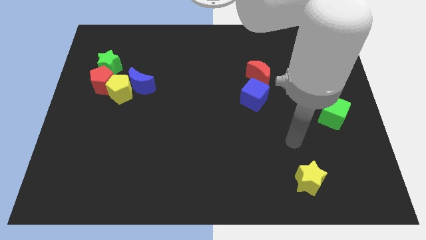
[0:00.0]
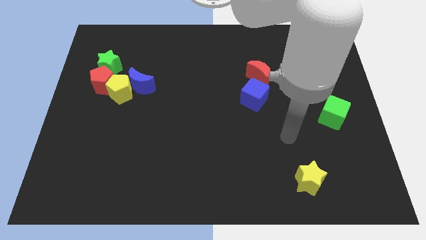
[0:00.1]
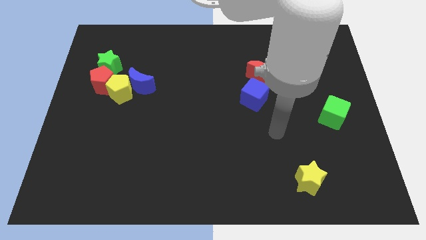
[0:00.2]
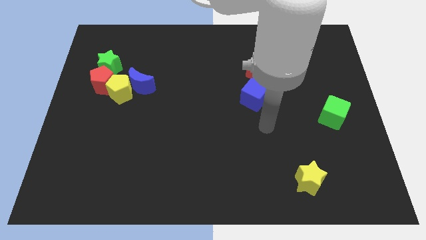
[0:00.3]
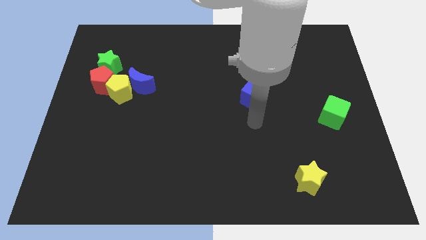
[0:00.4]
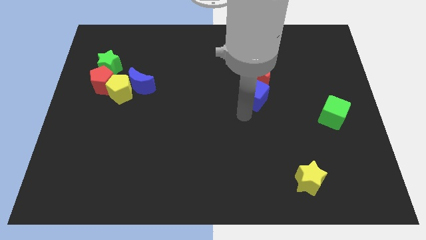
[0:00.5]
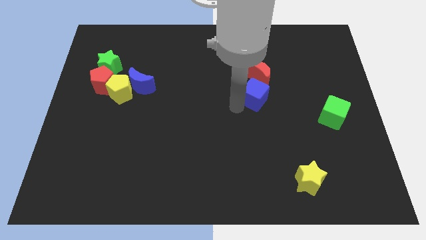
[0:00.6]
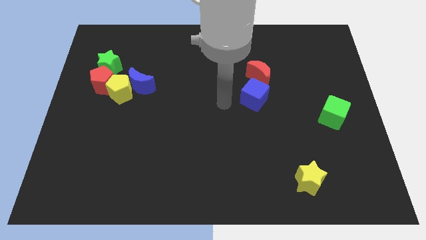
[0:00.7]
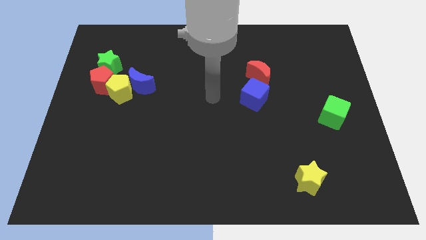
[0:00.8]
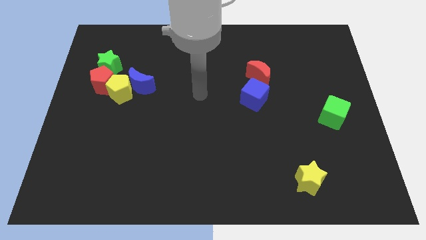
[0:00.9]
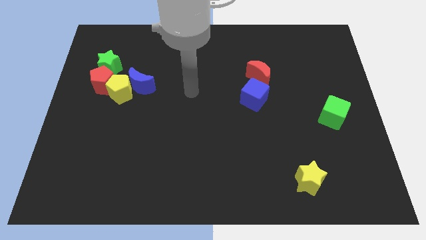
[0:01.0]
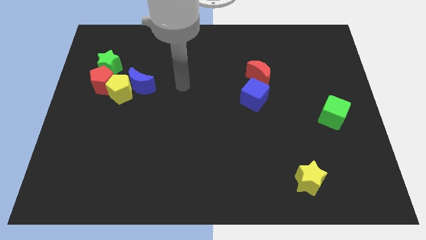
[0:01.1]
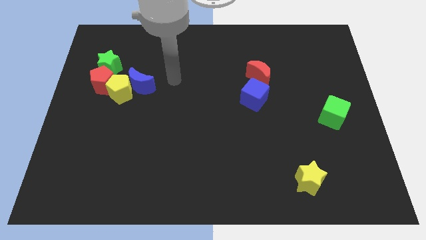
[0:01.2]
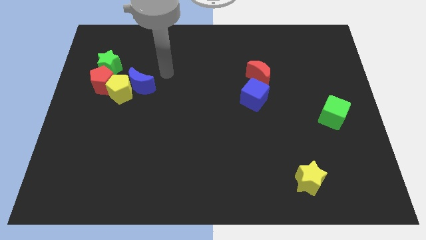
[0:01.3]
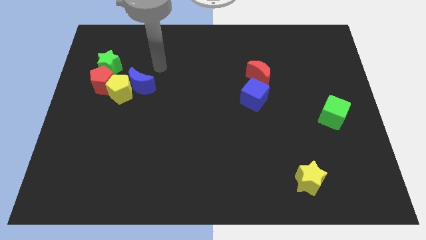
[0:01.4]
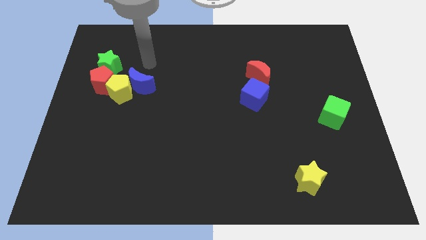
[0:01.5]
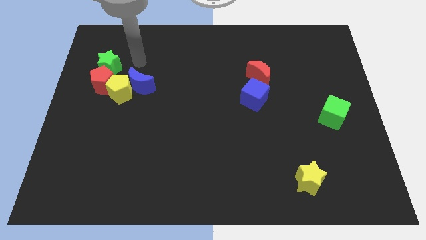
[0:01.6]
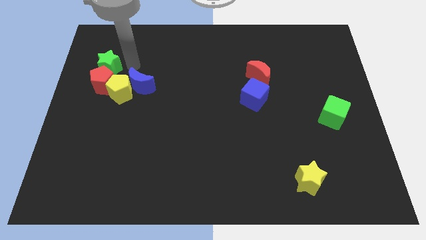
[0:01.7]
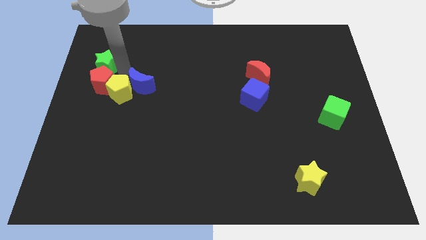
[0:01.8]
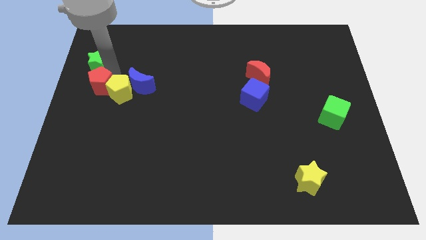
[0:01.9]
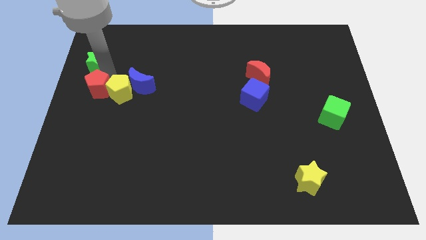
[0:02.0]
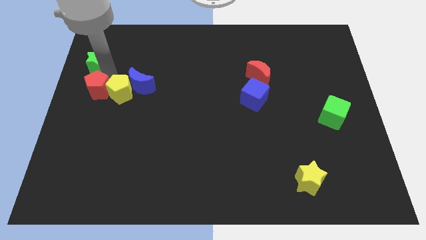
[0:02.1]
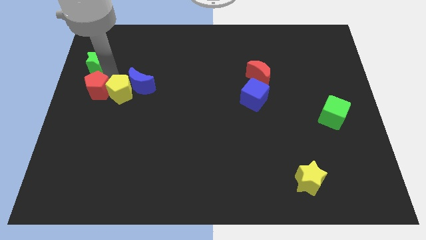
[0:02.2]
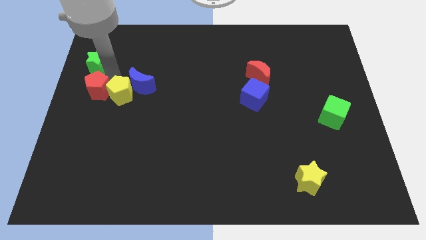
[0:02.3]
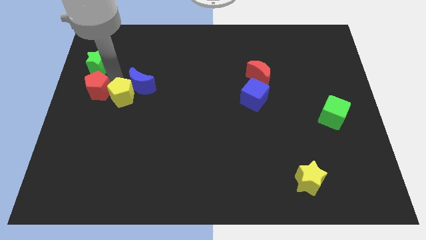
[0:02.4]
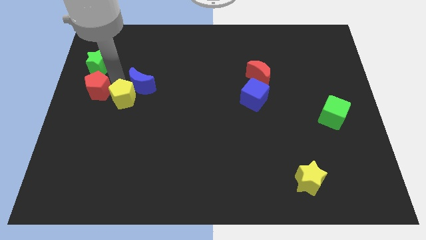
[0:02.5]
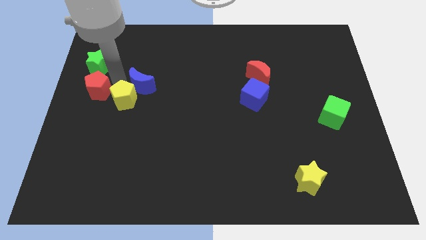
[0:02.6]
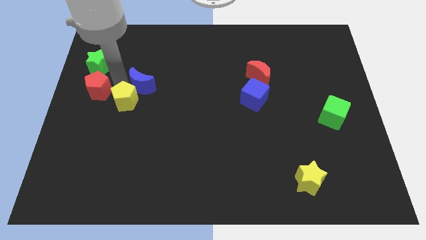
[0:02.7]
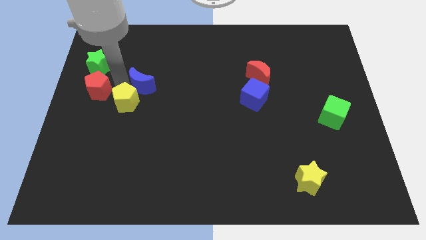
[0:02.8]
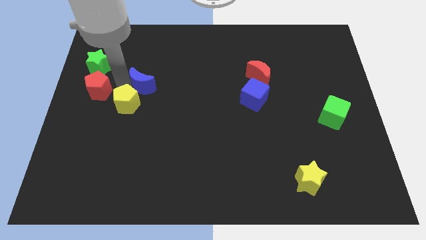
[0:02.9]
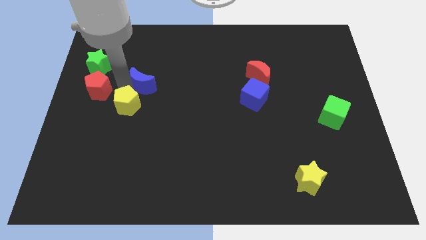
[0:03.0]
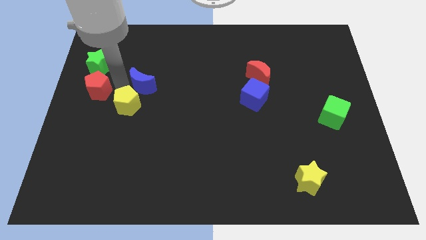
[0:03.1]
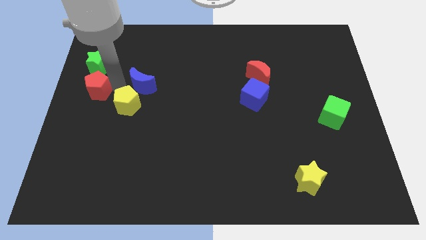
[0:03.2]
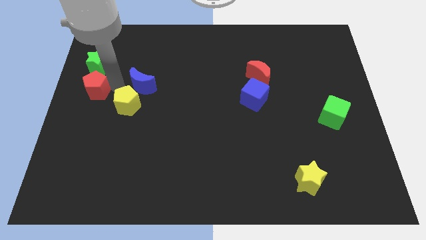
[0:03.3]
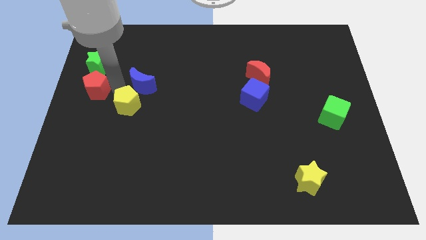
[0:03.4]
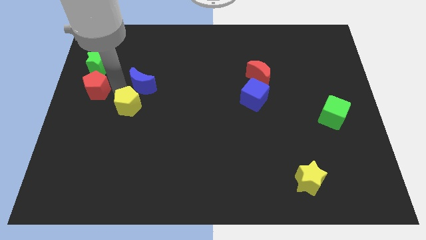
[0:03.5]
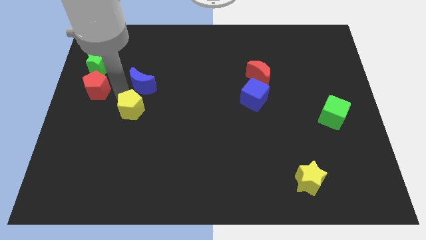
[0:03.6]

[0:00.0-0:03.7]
separate the yellow pentagon from the group

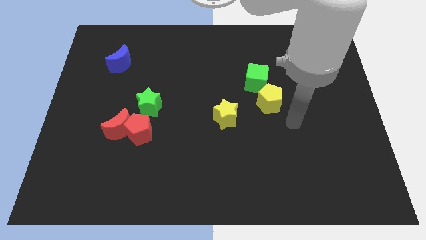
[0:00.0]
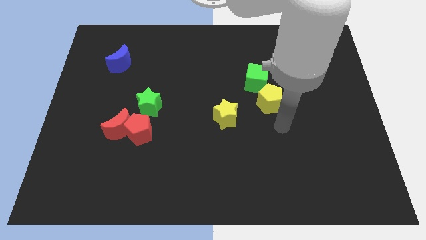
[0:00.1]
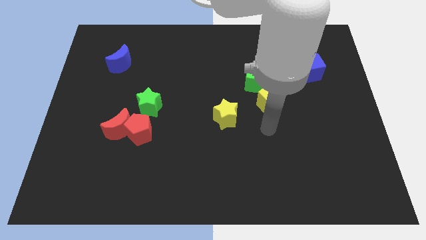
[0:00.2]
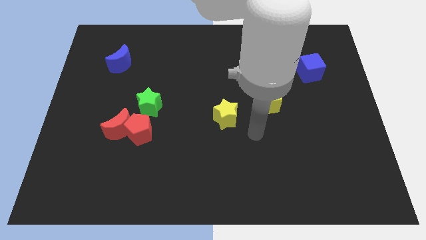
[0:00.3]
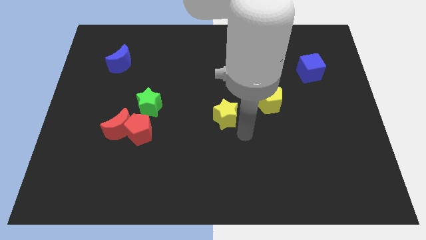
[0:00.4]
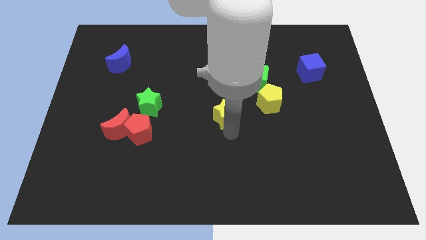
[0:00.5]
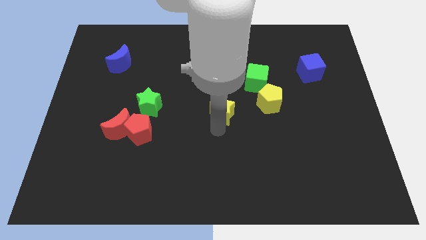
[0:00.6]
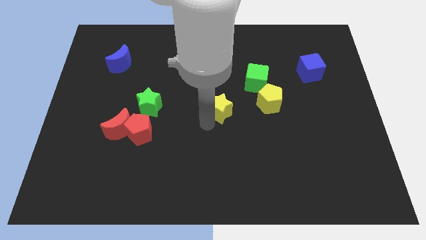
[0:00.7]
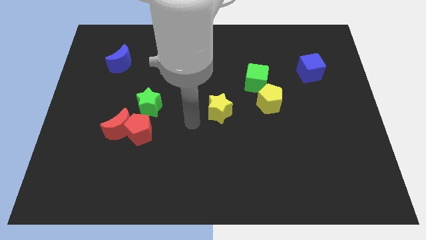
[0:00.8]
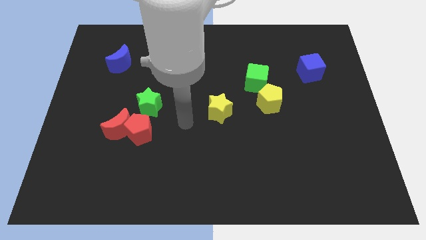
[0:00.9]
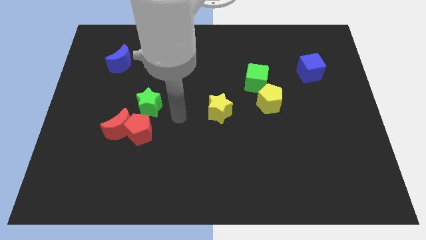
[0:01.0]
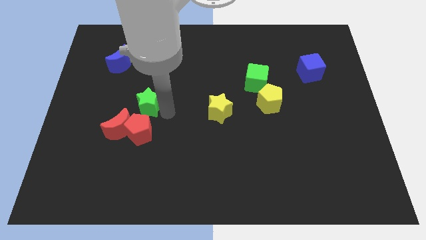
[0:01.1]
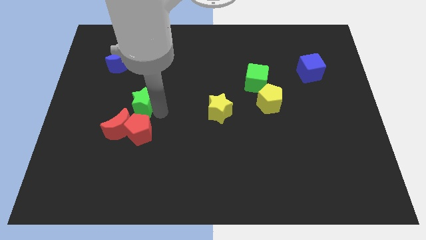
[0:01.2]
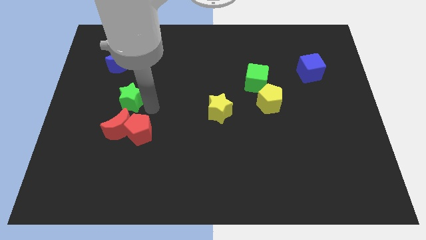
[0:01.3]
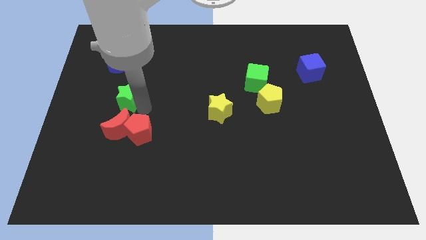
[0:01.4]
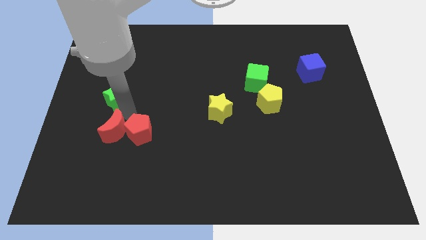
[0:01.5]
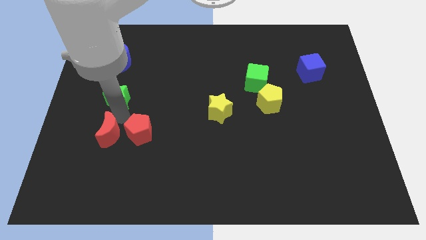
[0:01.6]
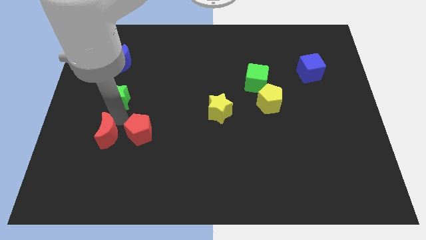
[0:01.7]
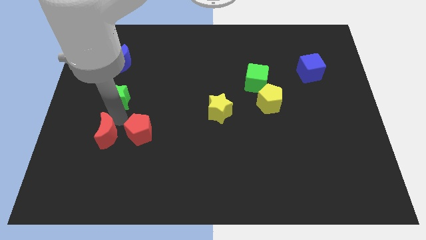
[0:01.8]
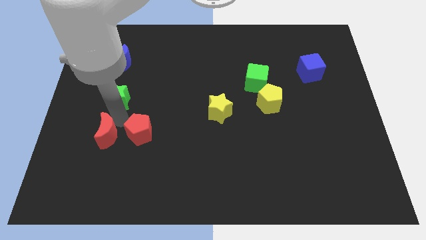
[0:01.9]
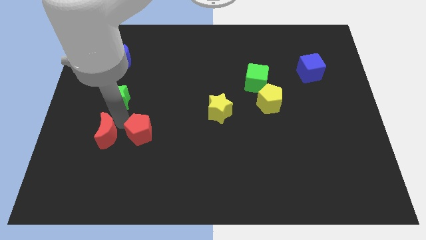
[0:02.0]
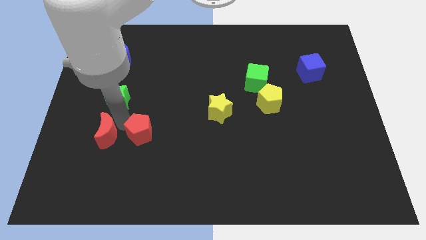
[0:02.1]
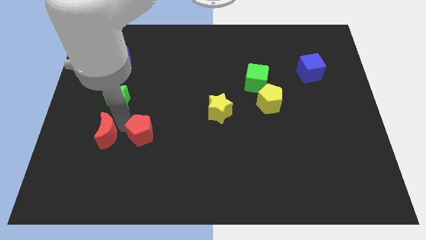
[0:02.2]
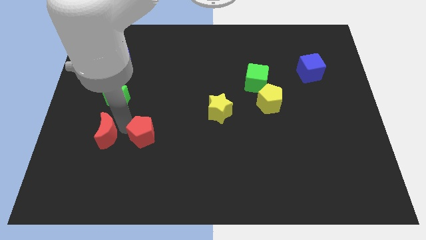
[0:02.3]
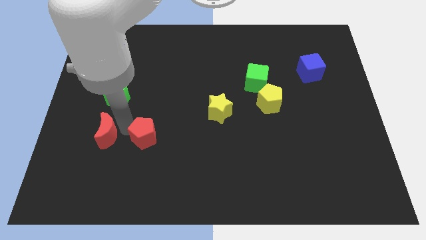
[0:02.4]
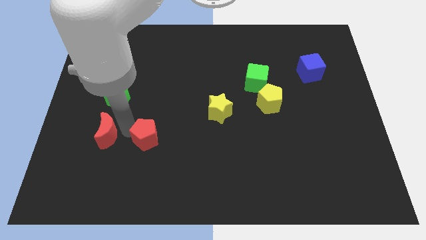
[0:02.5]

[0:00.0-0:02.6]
move the red pentagon away from the red moon and green star

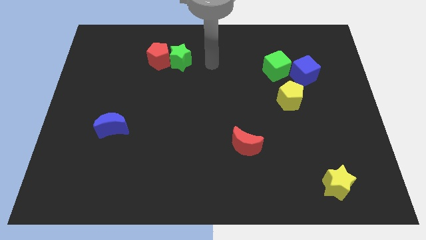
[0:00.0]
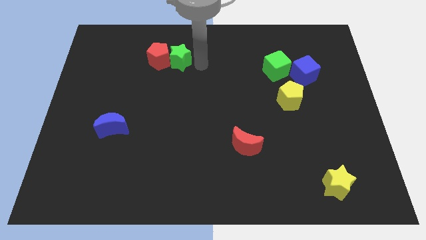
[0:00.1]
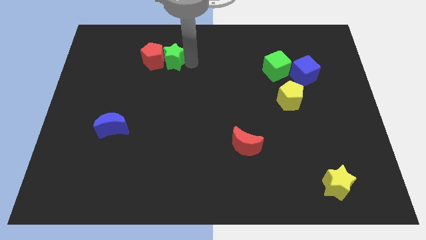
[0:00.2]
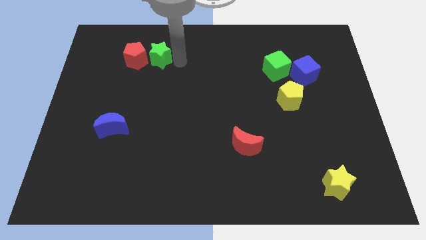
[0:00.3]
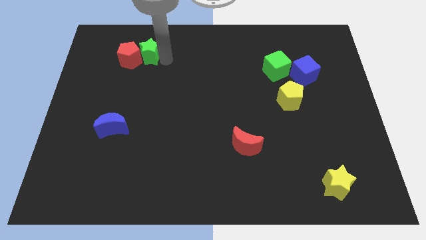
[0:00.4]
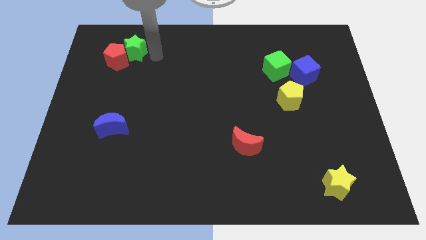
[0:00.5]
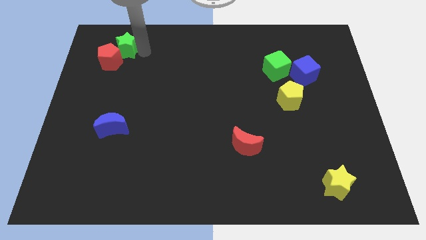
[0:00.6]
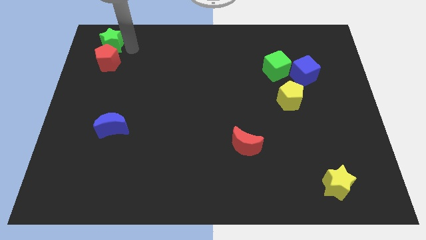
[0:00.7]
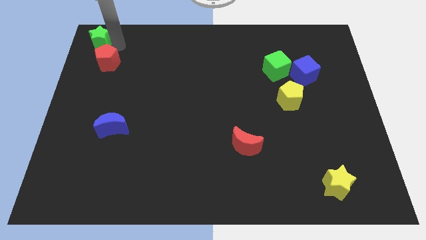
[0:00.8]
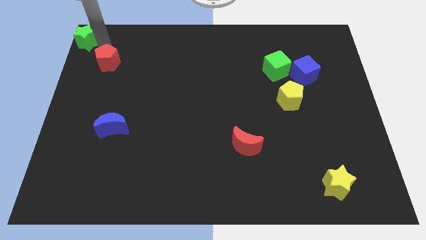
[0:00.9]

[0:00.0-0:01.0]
move the red pentagon away from the green star

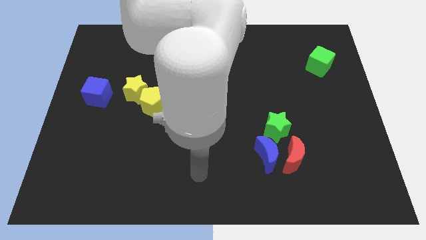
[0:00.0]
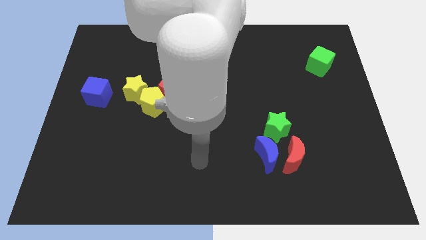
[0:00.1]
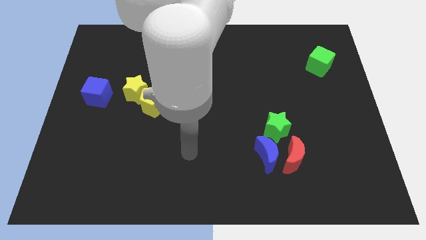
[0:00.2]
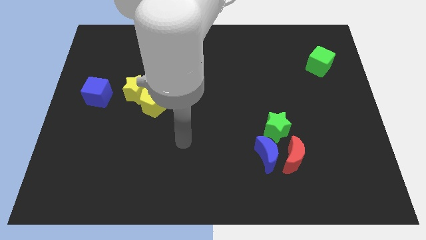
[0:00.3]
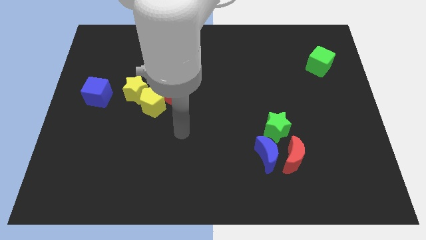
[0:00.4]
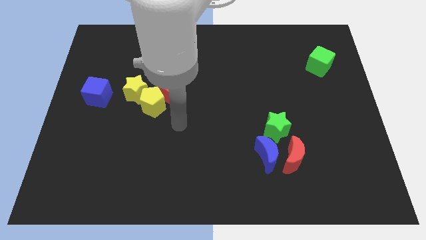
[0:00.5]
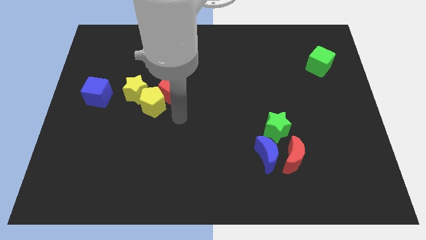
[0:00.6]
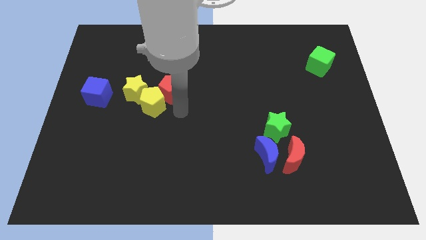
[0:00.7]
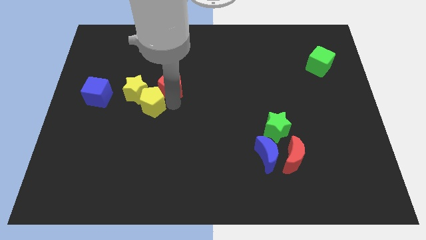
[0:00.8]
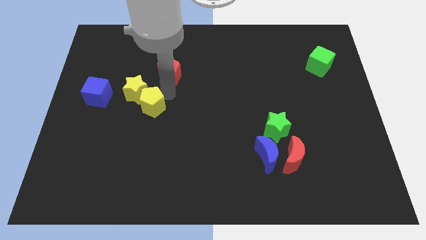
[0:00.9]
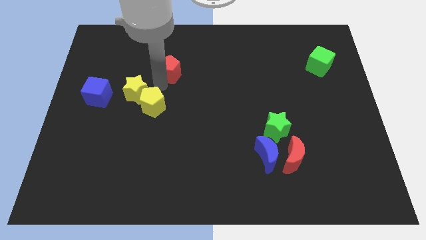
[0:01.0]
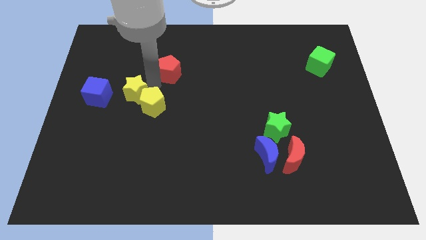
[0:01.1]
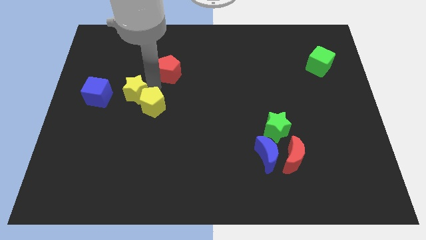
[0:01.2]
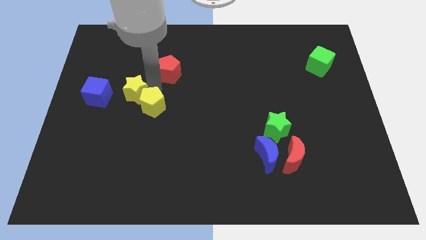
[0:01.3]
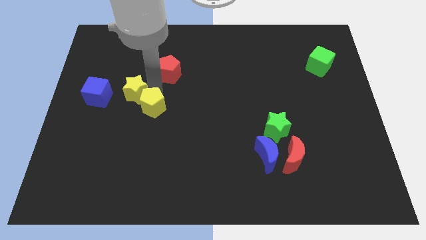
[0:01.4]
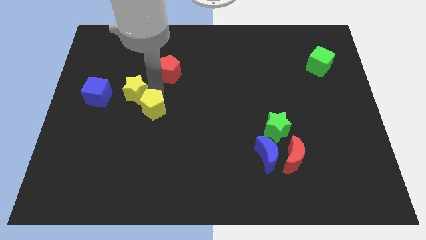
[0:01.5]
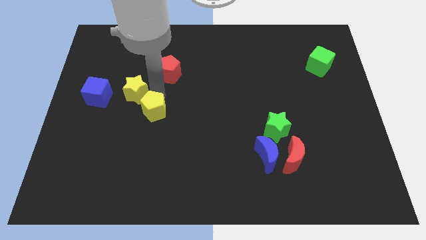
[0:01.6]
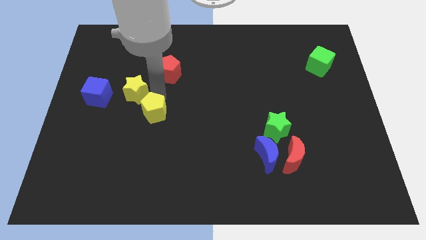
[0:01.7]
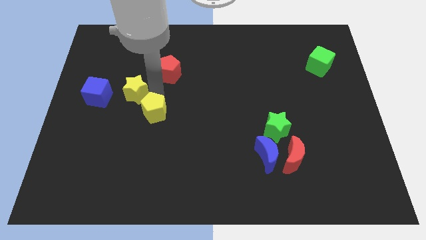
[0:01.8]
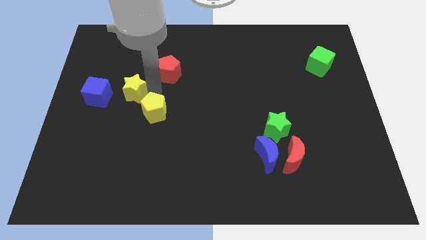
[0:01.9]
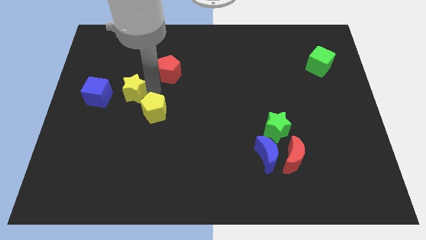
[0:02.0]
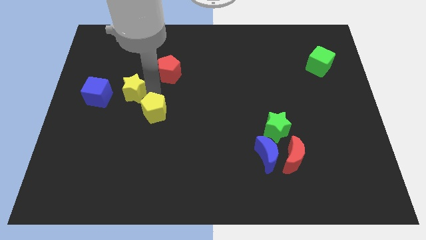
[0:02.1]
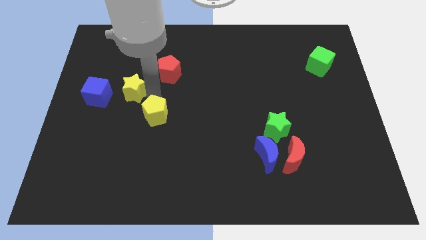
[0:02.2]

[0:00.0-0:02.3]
move the yellow pentagon away from the yellow star and red pentagon
